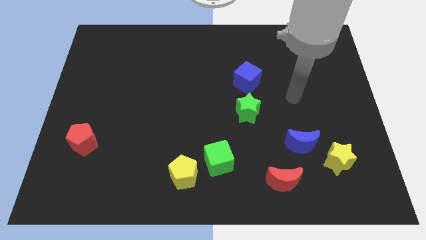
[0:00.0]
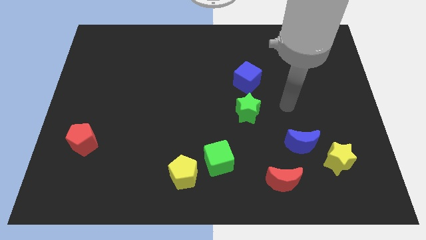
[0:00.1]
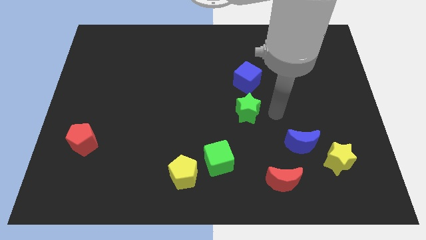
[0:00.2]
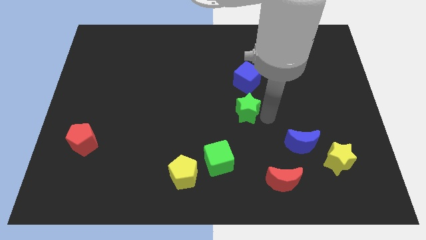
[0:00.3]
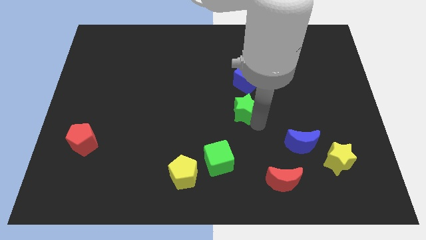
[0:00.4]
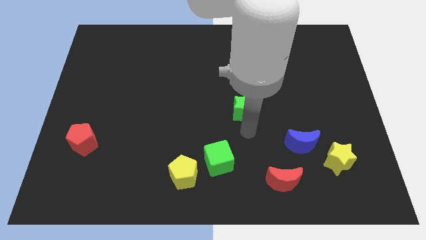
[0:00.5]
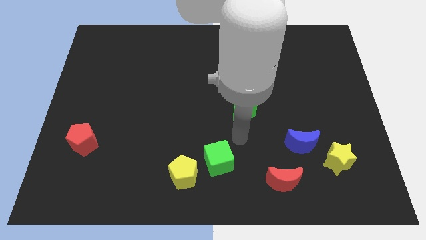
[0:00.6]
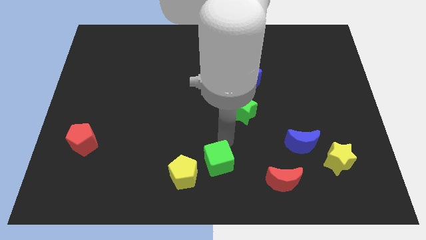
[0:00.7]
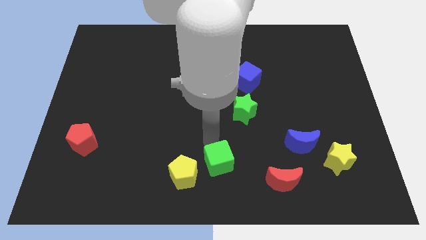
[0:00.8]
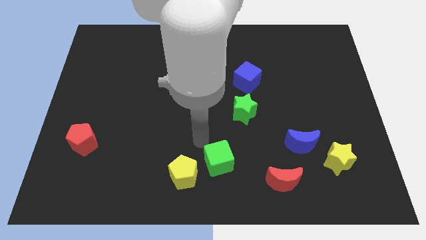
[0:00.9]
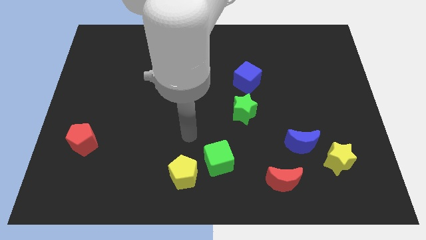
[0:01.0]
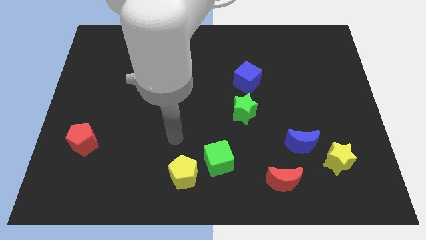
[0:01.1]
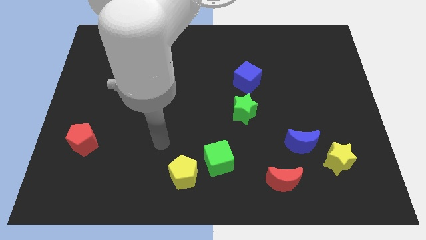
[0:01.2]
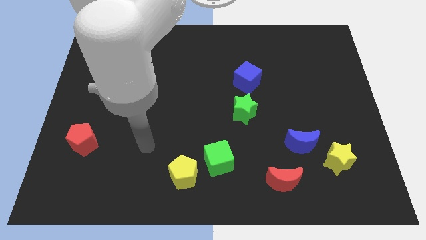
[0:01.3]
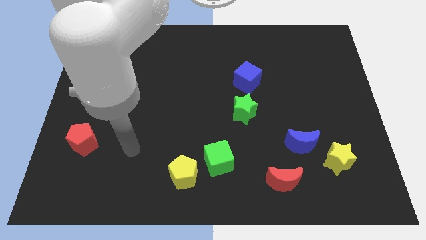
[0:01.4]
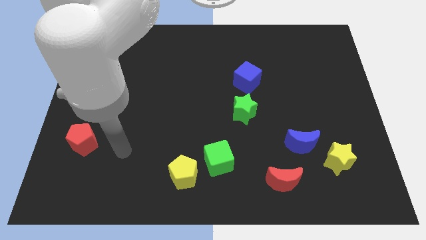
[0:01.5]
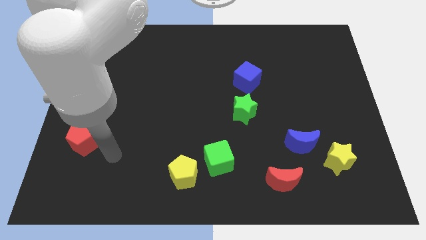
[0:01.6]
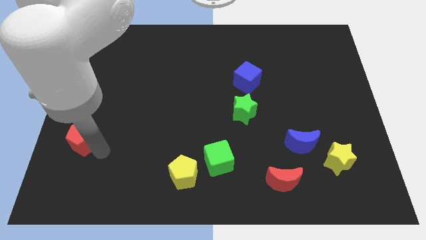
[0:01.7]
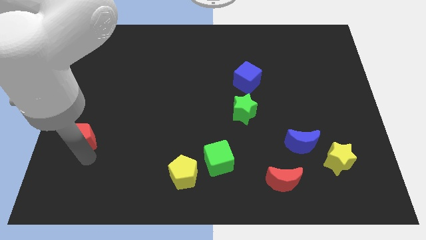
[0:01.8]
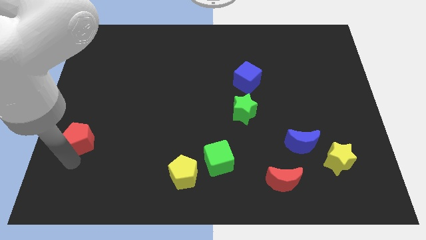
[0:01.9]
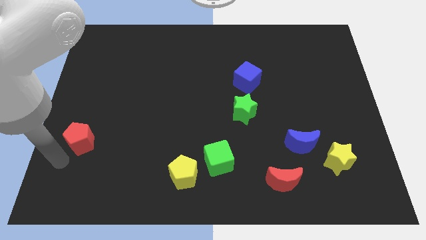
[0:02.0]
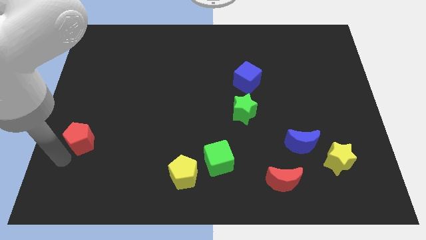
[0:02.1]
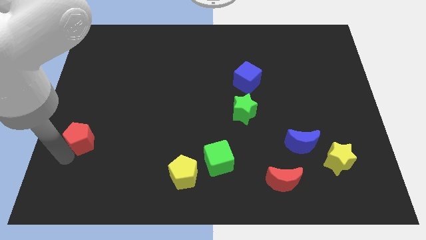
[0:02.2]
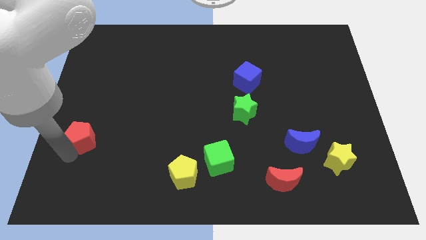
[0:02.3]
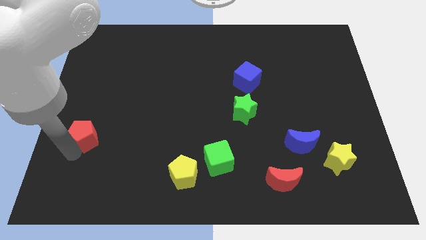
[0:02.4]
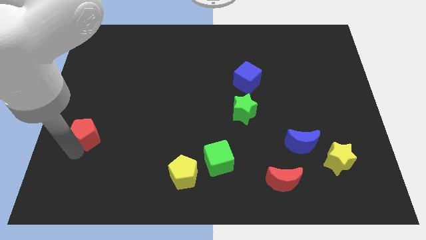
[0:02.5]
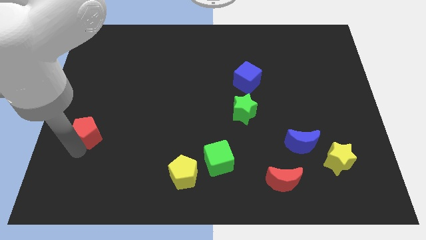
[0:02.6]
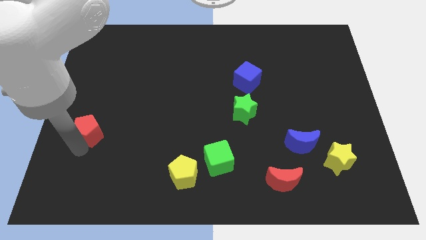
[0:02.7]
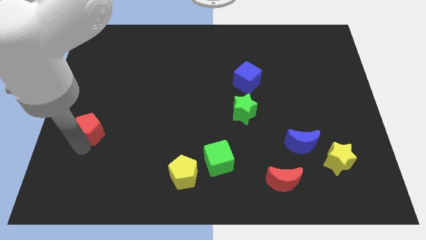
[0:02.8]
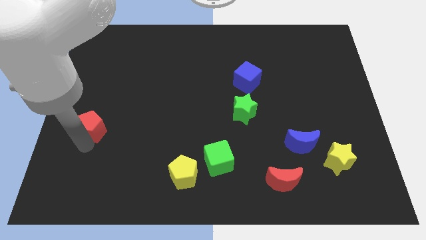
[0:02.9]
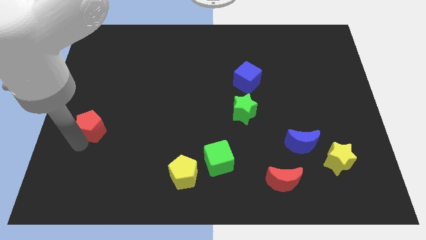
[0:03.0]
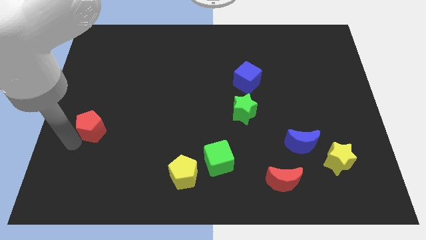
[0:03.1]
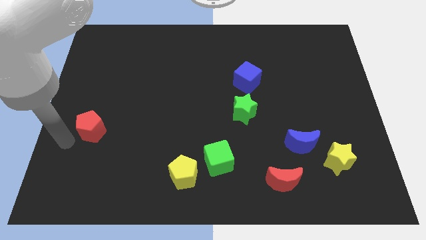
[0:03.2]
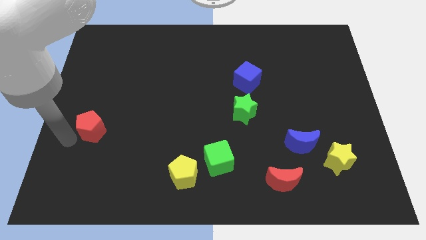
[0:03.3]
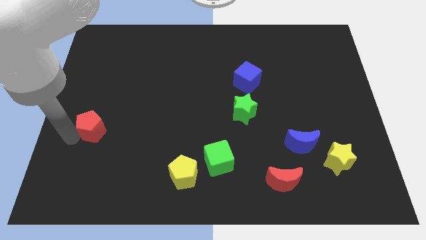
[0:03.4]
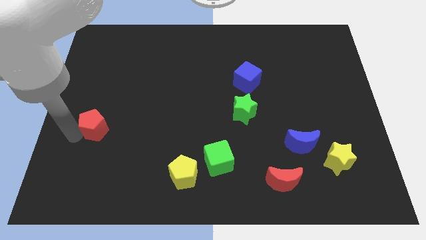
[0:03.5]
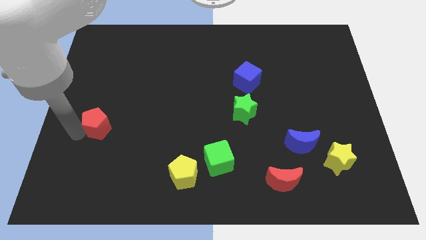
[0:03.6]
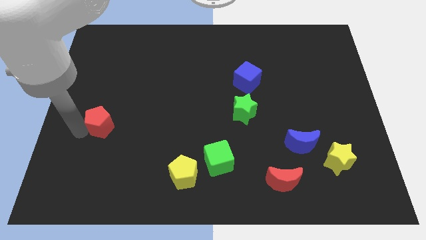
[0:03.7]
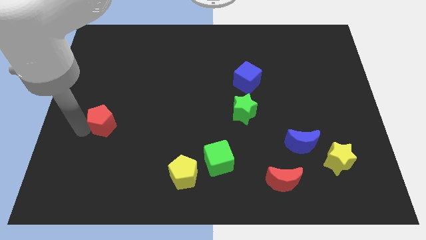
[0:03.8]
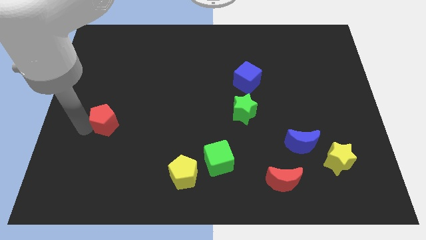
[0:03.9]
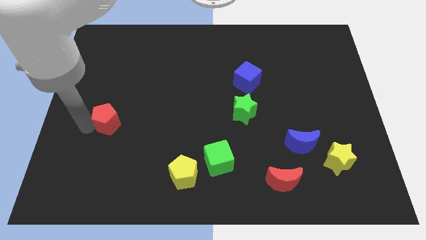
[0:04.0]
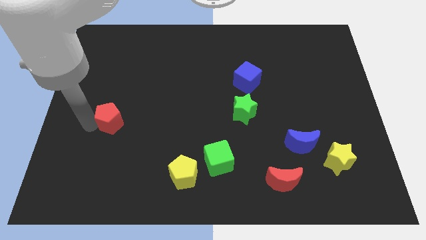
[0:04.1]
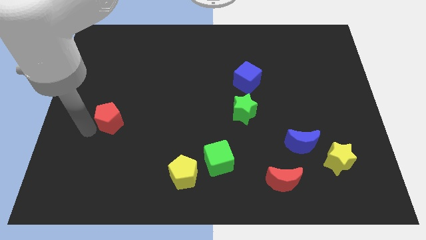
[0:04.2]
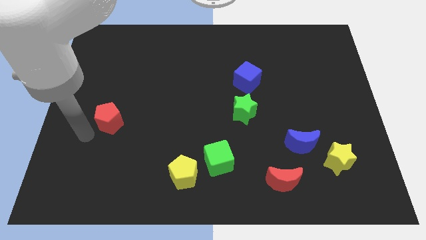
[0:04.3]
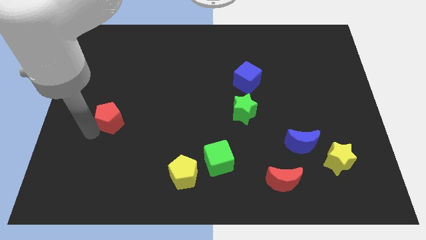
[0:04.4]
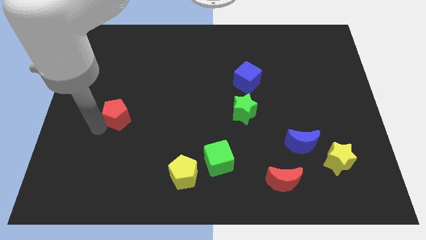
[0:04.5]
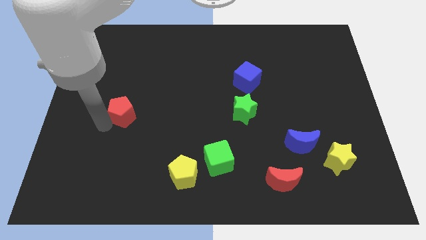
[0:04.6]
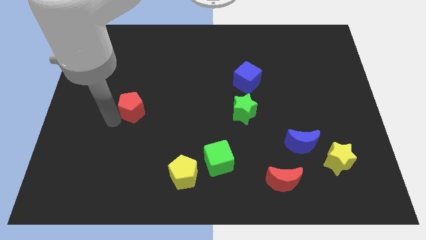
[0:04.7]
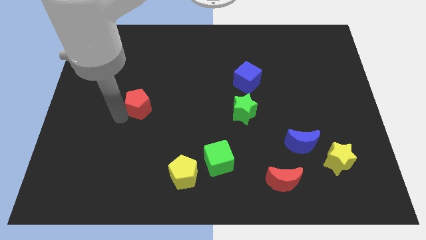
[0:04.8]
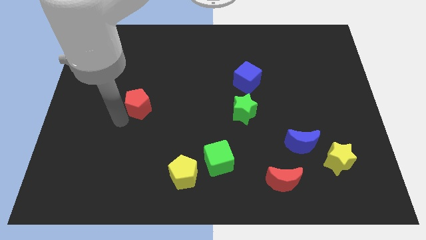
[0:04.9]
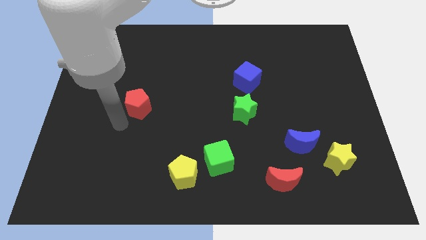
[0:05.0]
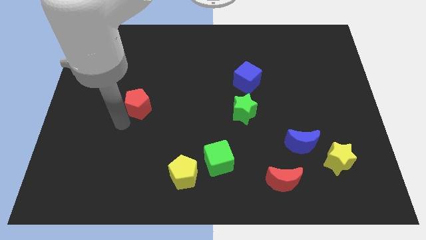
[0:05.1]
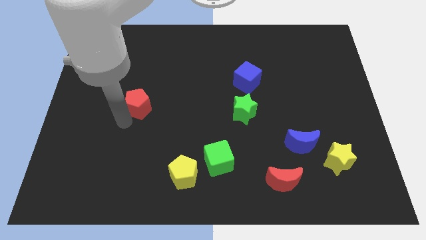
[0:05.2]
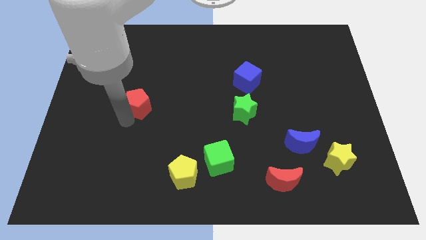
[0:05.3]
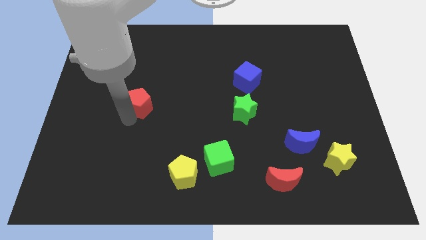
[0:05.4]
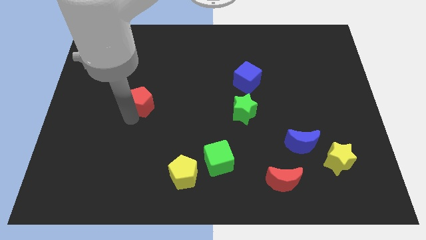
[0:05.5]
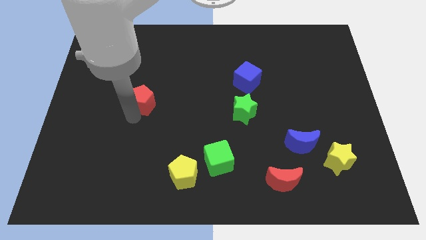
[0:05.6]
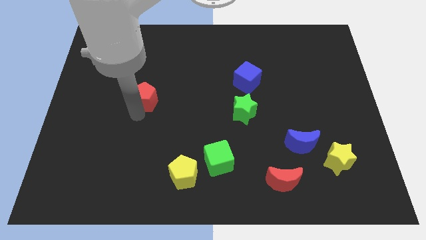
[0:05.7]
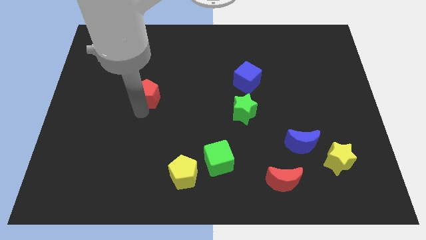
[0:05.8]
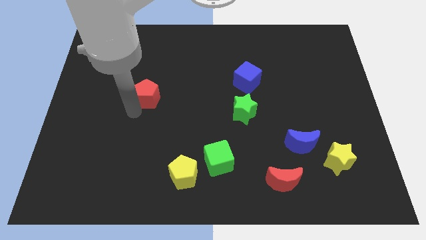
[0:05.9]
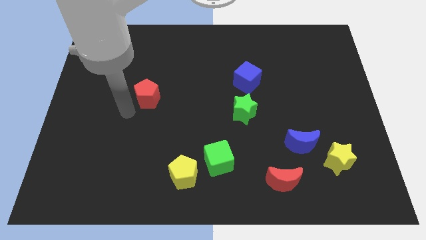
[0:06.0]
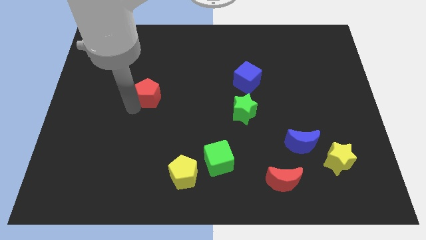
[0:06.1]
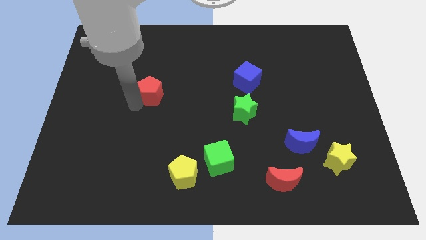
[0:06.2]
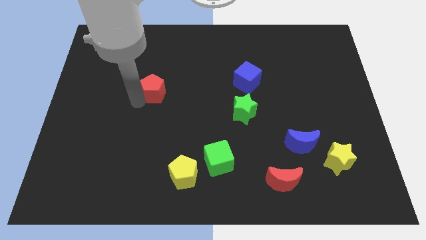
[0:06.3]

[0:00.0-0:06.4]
slide the red pentagon upwards and then to the right

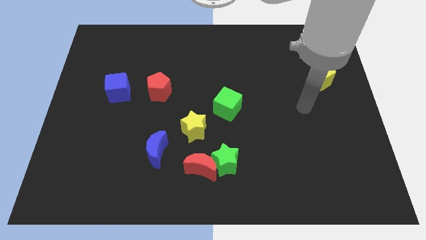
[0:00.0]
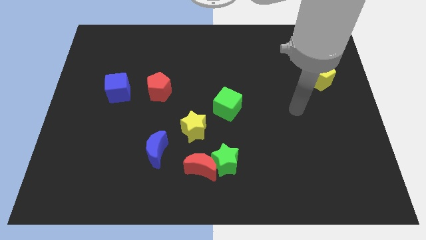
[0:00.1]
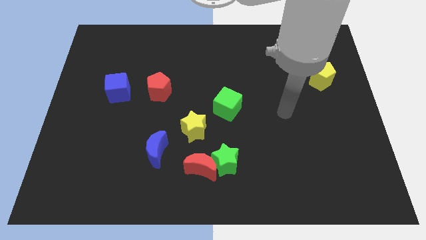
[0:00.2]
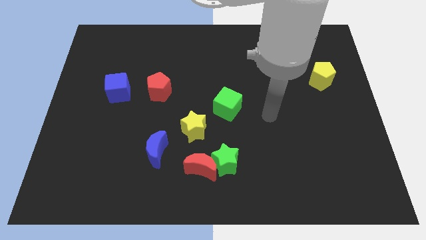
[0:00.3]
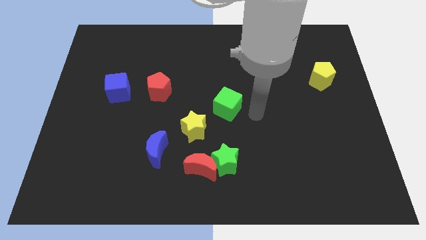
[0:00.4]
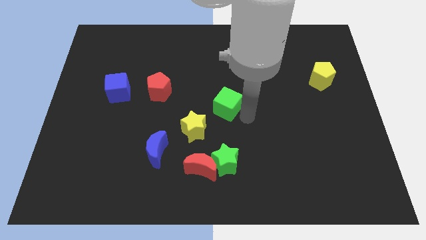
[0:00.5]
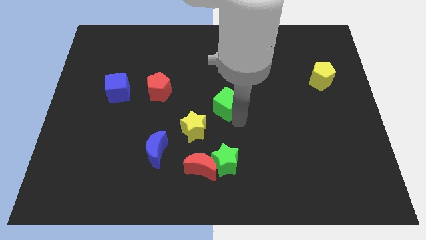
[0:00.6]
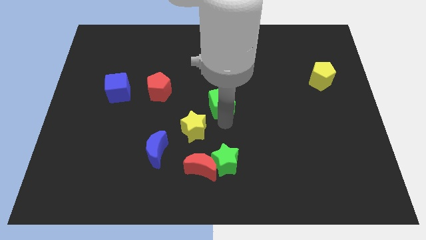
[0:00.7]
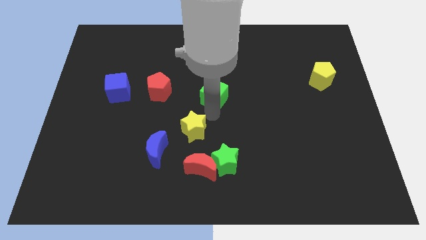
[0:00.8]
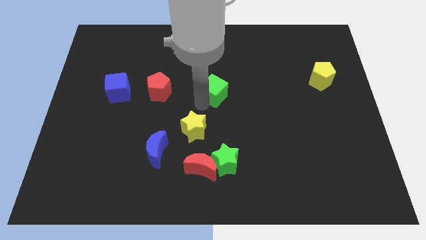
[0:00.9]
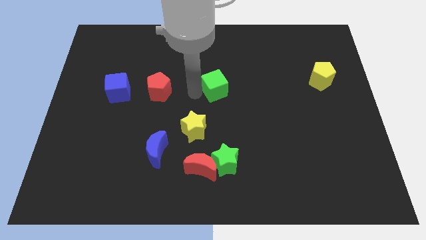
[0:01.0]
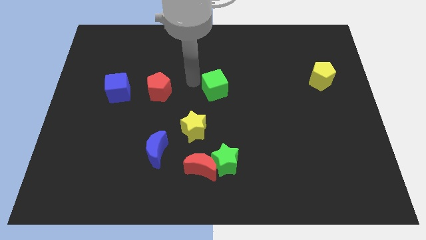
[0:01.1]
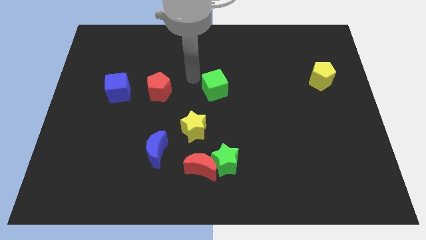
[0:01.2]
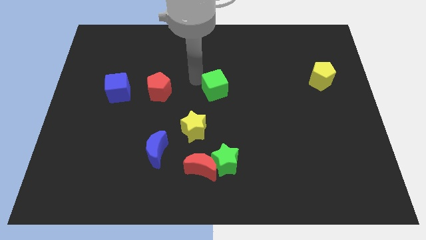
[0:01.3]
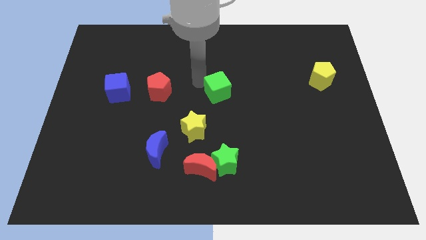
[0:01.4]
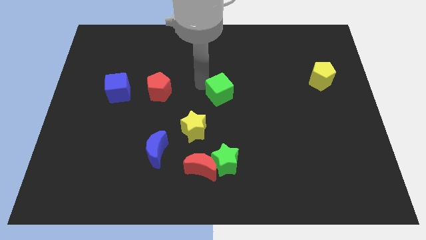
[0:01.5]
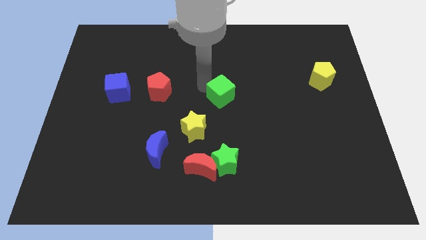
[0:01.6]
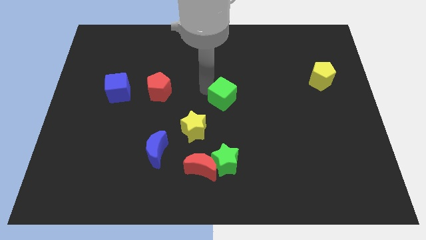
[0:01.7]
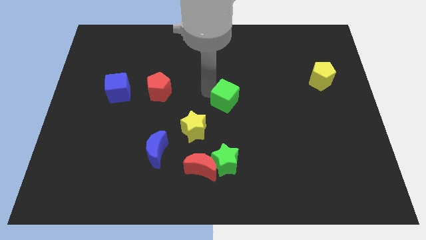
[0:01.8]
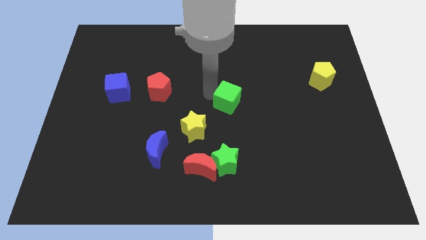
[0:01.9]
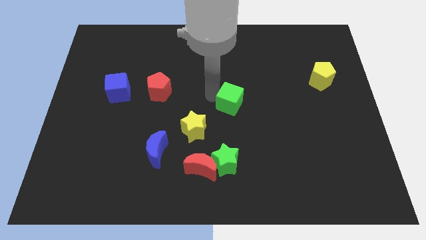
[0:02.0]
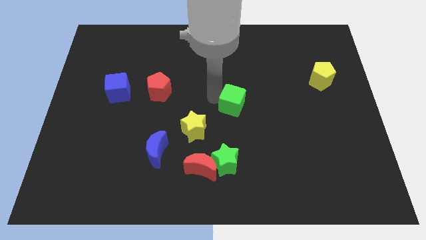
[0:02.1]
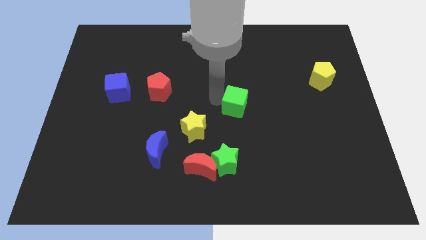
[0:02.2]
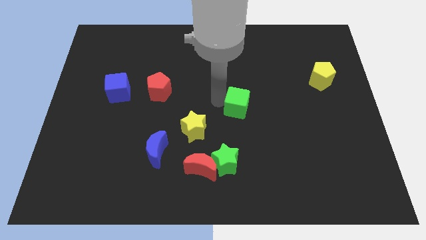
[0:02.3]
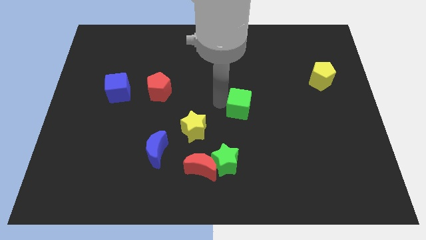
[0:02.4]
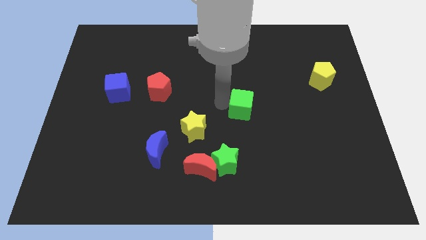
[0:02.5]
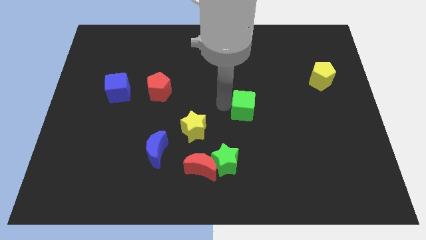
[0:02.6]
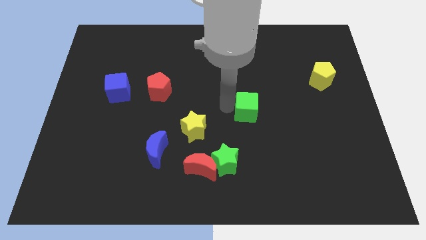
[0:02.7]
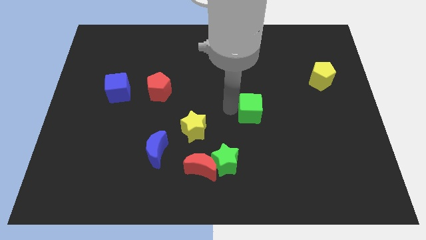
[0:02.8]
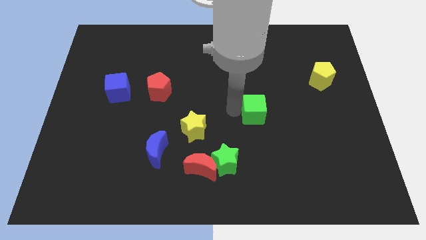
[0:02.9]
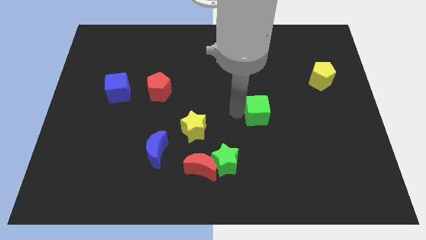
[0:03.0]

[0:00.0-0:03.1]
push the green cube slightly to the right
